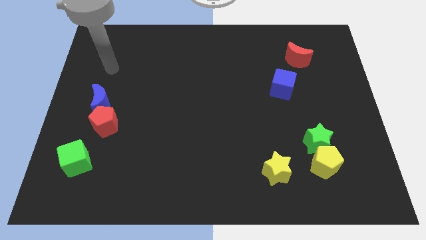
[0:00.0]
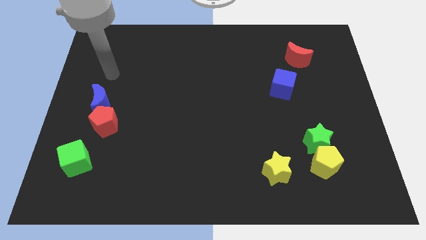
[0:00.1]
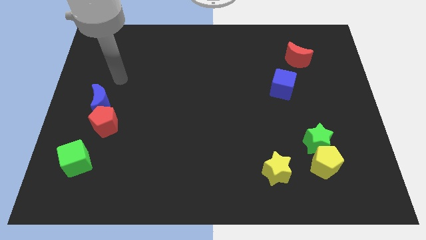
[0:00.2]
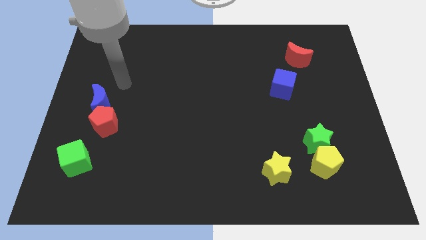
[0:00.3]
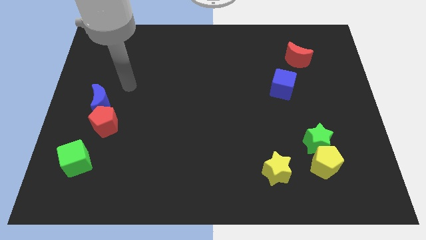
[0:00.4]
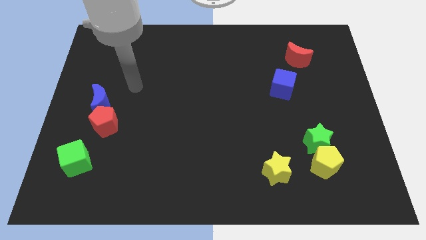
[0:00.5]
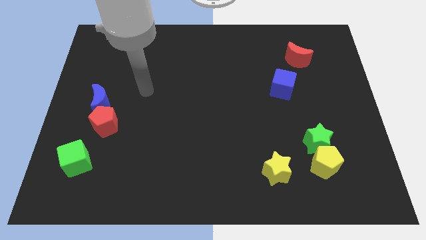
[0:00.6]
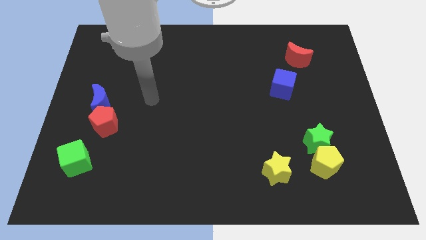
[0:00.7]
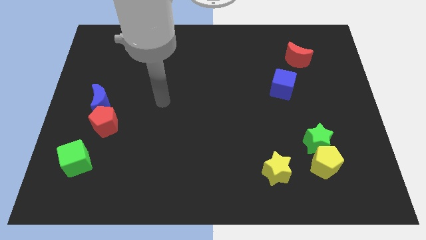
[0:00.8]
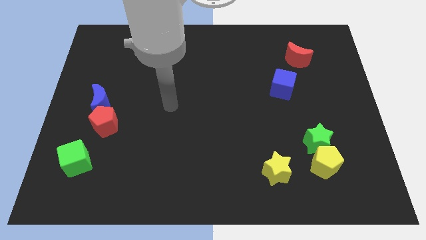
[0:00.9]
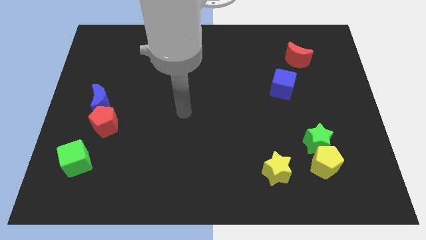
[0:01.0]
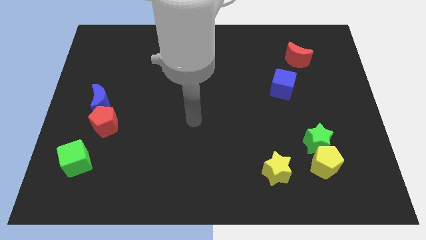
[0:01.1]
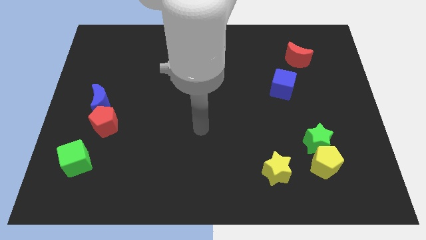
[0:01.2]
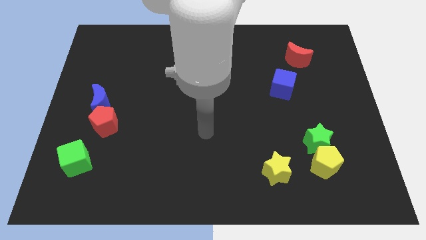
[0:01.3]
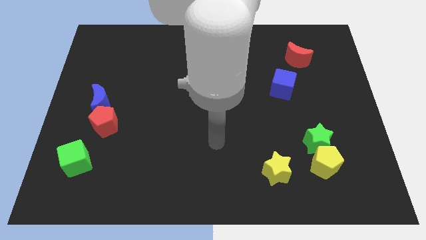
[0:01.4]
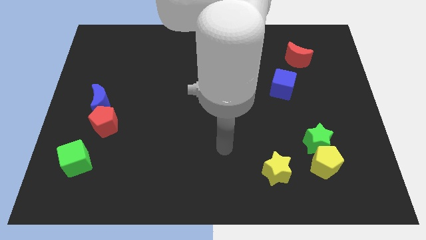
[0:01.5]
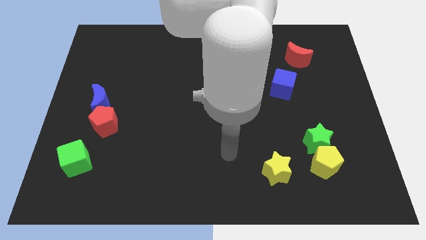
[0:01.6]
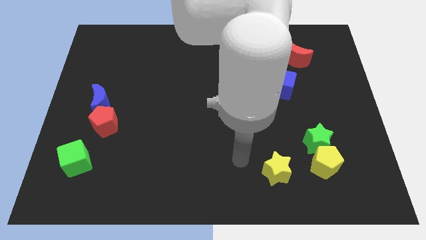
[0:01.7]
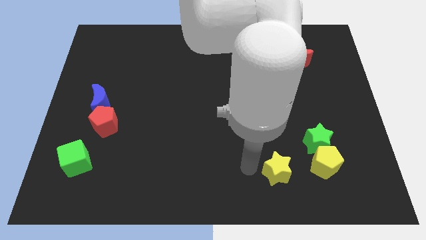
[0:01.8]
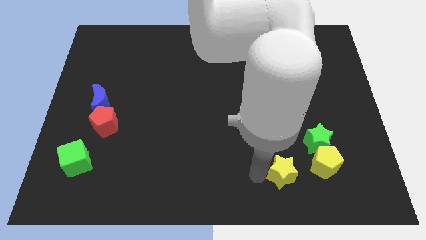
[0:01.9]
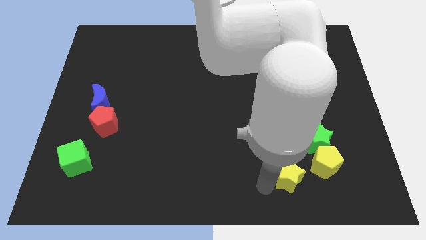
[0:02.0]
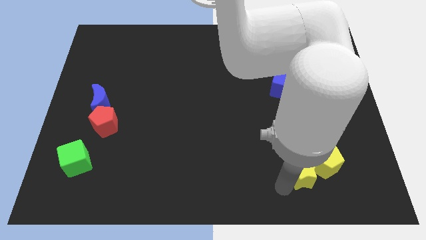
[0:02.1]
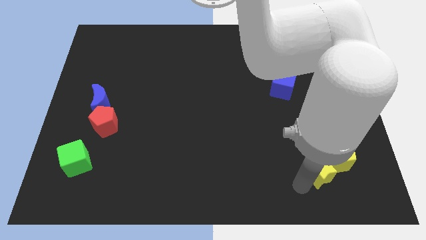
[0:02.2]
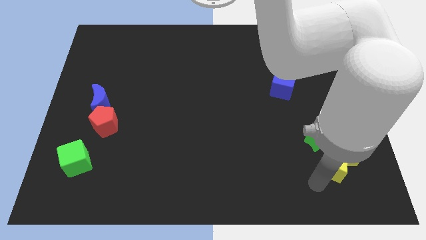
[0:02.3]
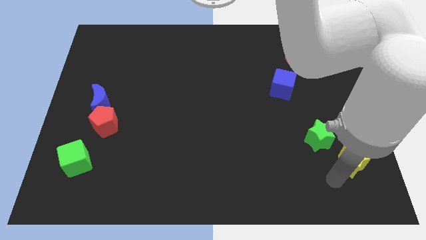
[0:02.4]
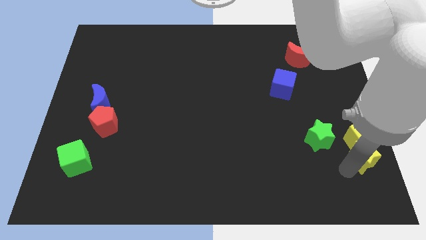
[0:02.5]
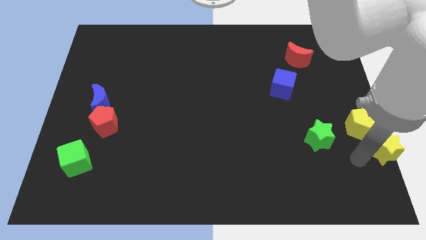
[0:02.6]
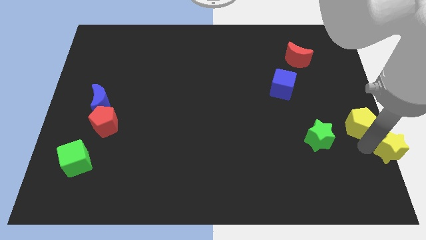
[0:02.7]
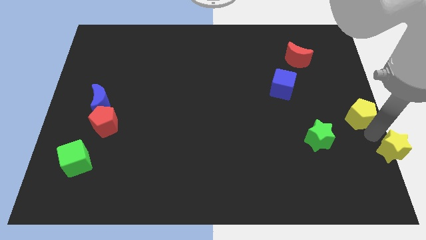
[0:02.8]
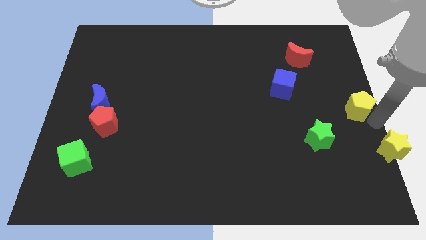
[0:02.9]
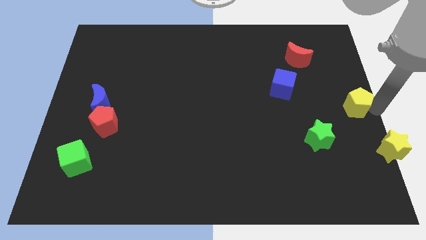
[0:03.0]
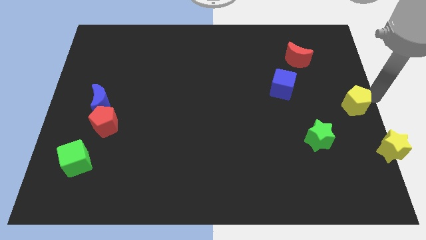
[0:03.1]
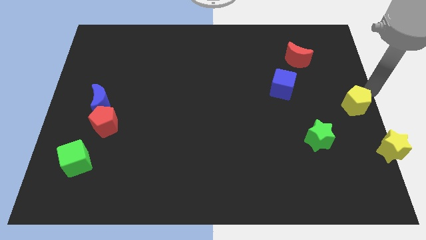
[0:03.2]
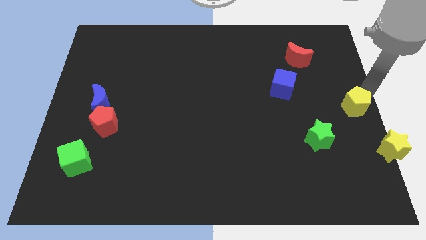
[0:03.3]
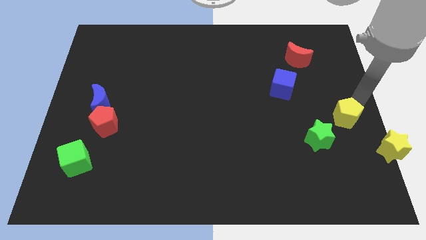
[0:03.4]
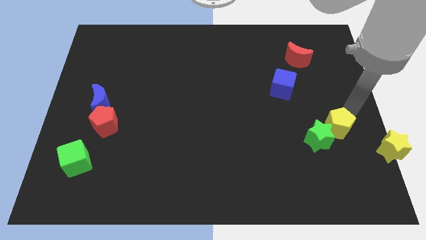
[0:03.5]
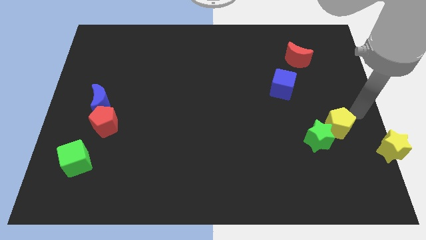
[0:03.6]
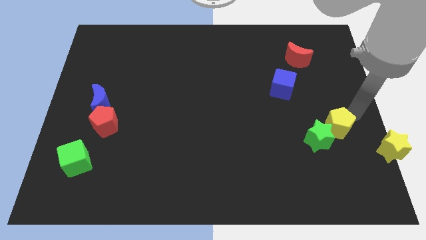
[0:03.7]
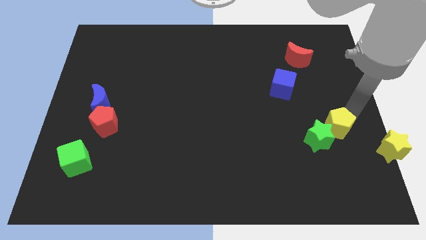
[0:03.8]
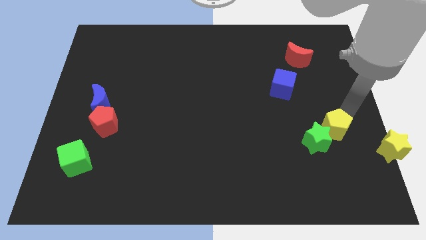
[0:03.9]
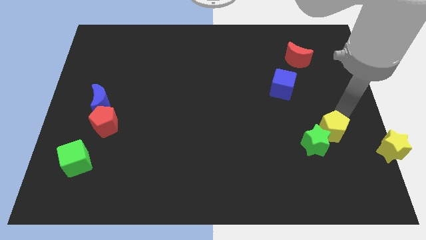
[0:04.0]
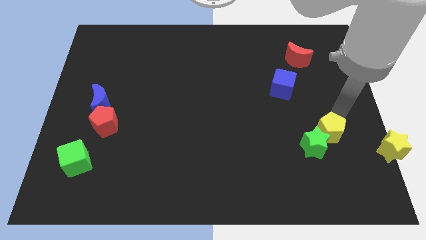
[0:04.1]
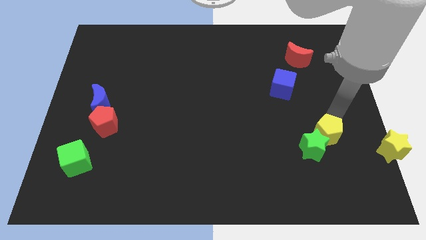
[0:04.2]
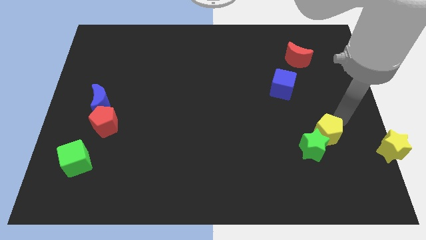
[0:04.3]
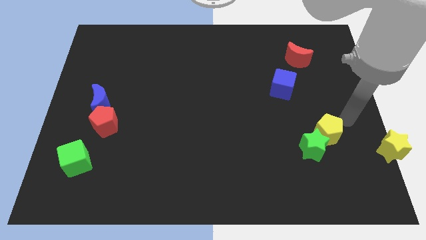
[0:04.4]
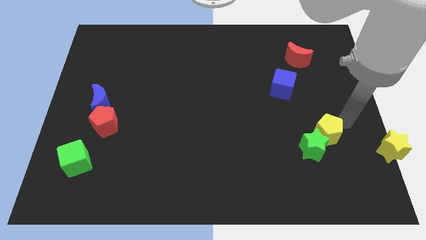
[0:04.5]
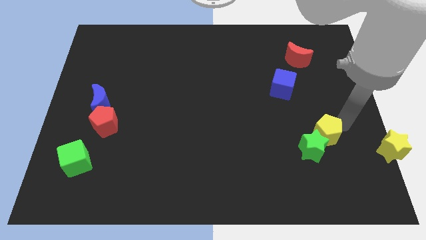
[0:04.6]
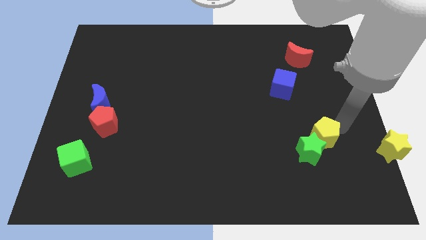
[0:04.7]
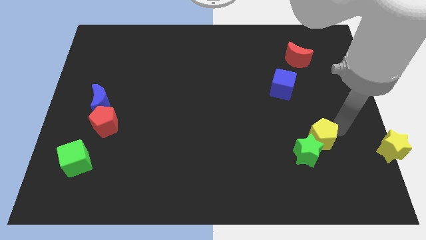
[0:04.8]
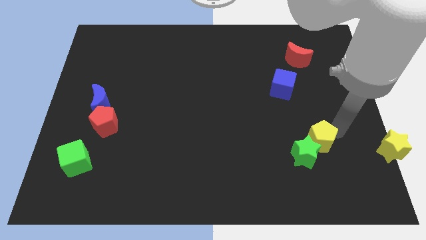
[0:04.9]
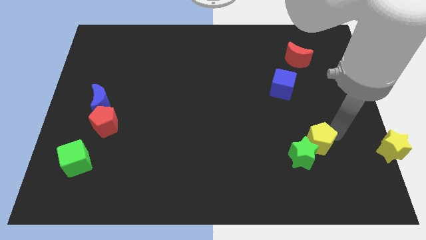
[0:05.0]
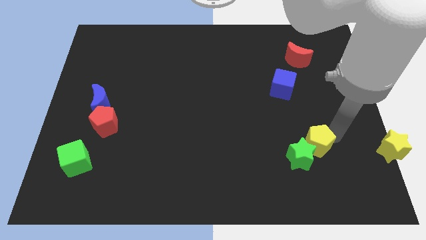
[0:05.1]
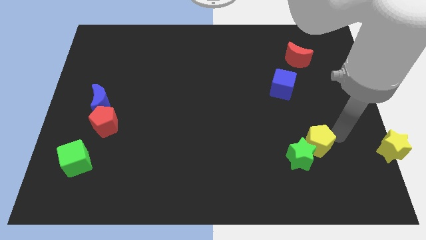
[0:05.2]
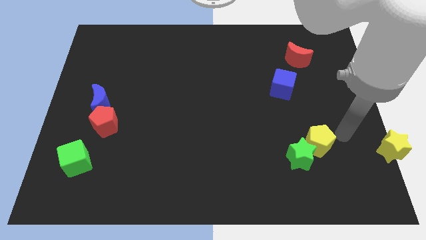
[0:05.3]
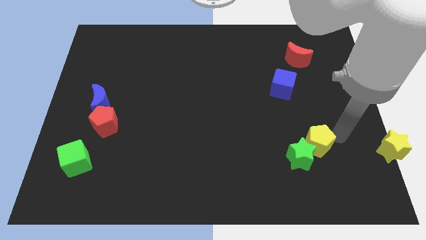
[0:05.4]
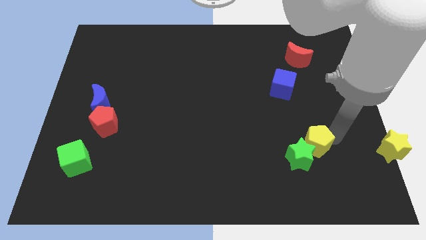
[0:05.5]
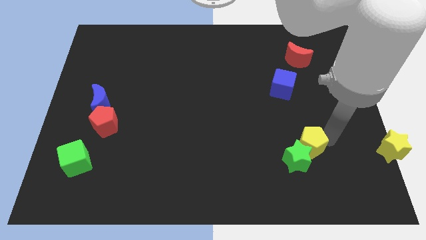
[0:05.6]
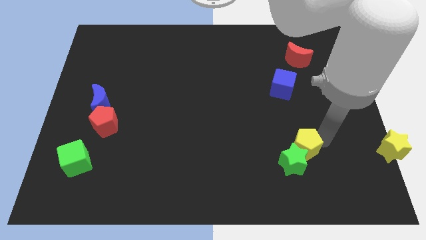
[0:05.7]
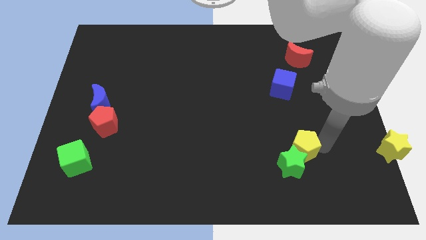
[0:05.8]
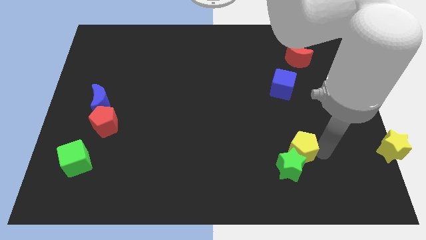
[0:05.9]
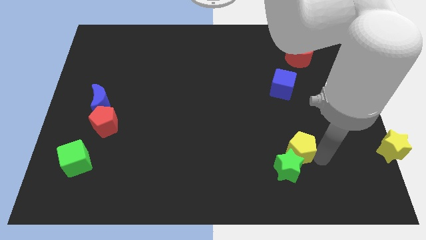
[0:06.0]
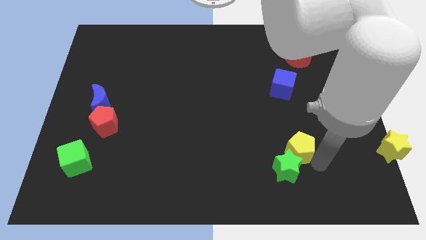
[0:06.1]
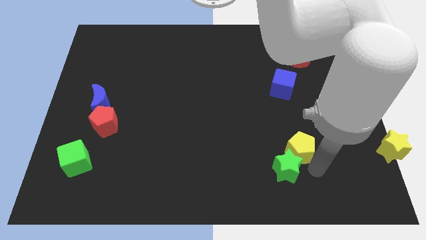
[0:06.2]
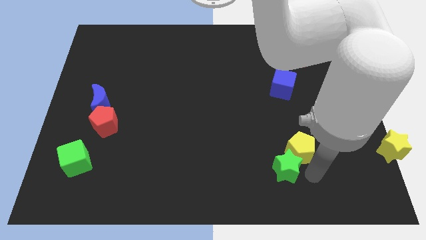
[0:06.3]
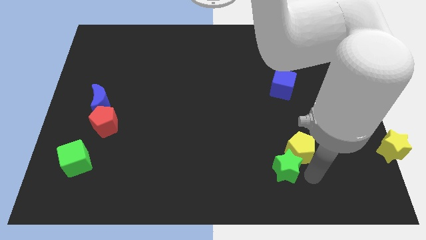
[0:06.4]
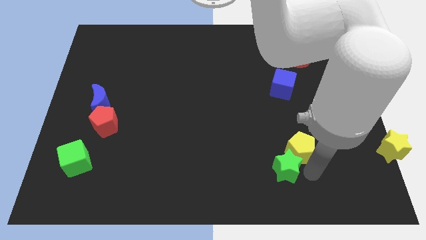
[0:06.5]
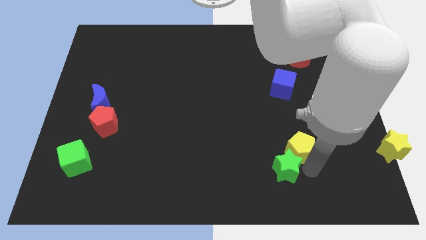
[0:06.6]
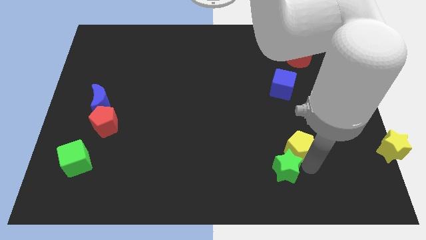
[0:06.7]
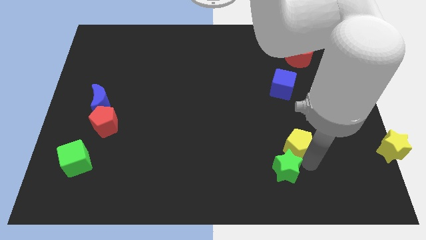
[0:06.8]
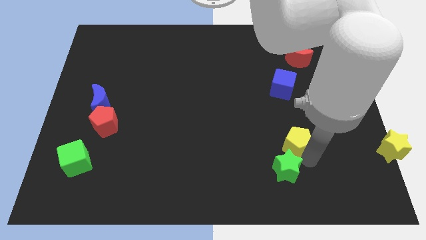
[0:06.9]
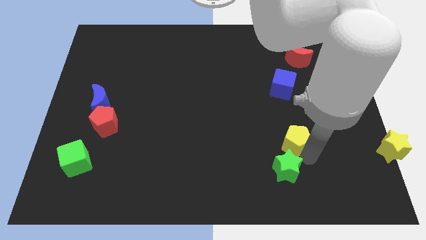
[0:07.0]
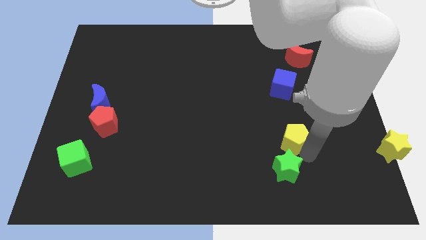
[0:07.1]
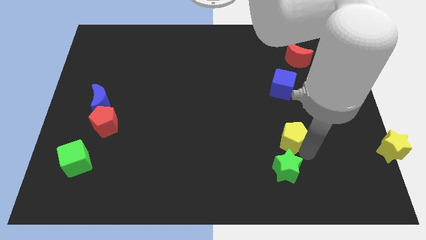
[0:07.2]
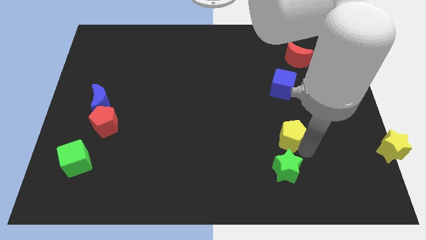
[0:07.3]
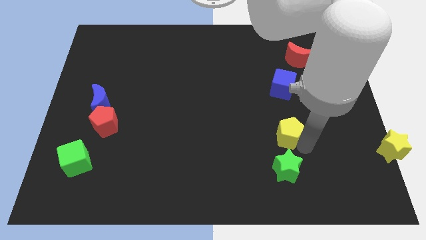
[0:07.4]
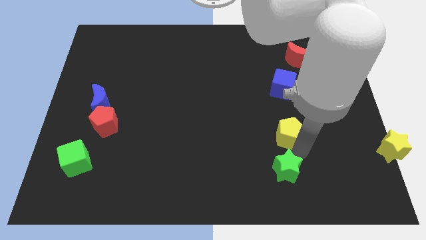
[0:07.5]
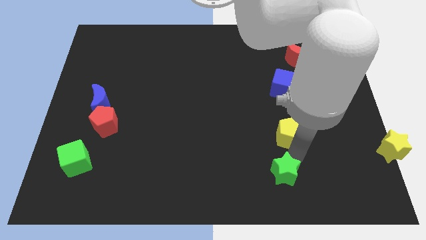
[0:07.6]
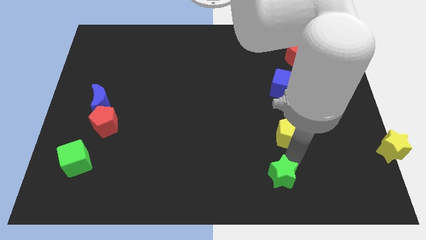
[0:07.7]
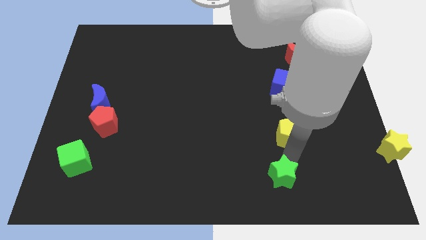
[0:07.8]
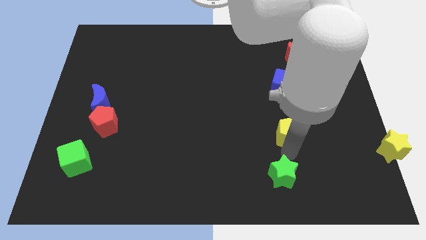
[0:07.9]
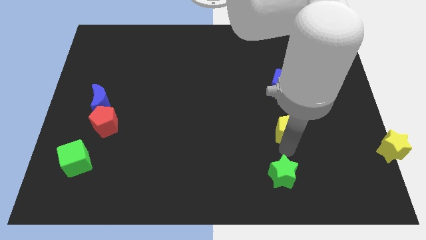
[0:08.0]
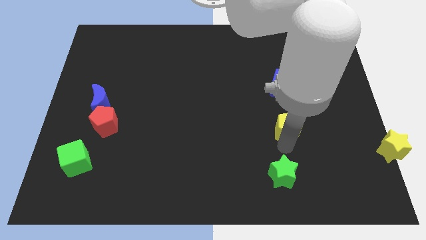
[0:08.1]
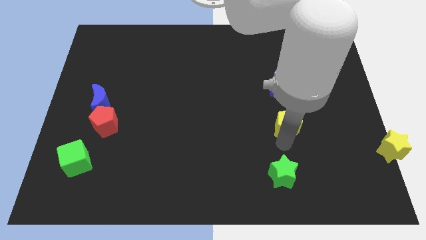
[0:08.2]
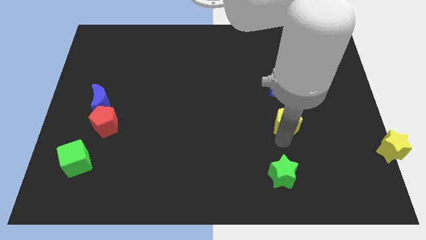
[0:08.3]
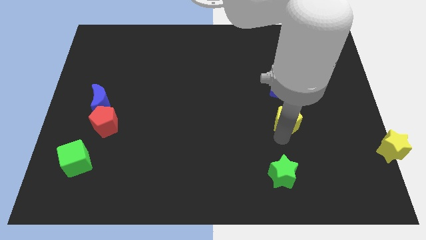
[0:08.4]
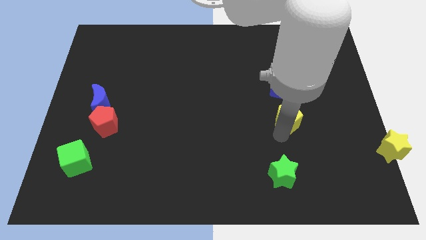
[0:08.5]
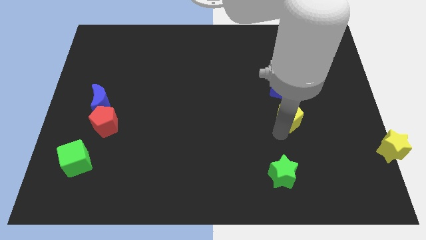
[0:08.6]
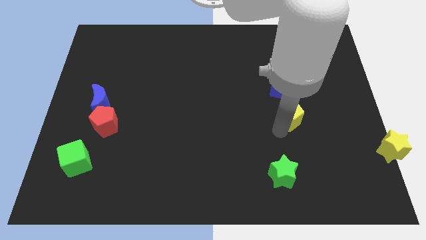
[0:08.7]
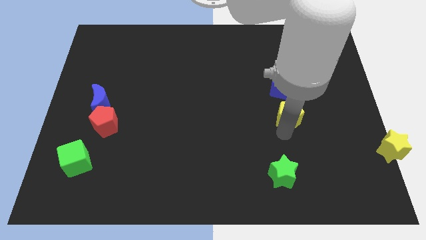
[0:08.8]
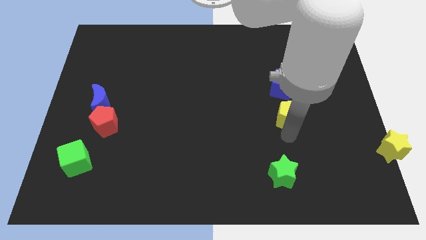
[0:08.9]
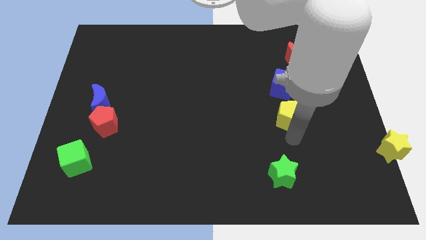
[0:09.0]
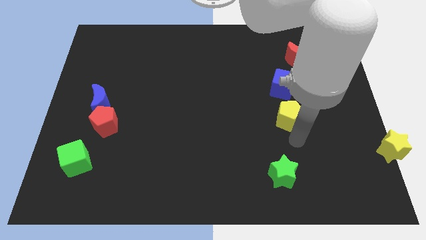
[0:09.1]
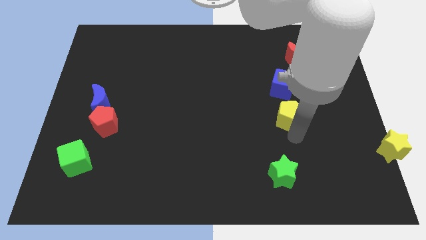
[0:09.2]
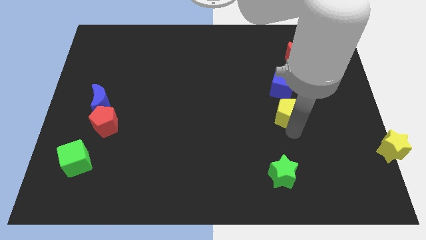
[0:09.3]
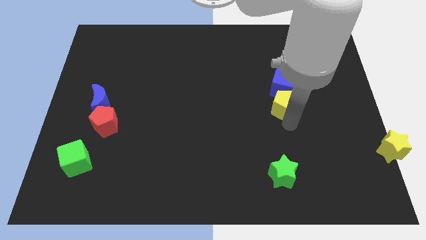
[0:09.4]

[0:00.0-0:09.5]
push the yellow pentagon to the blue cube
